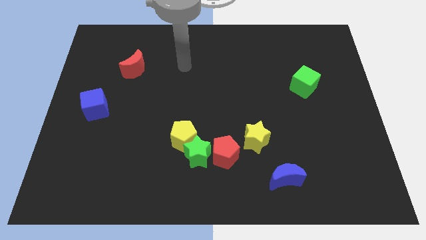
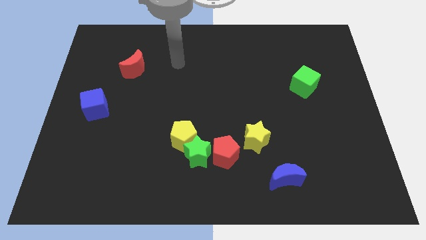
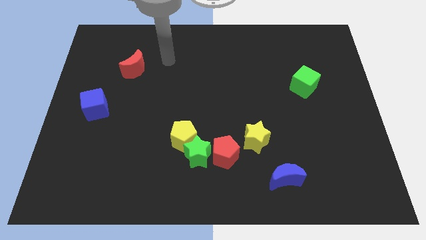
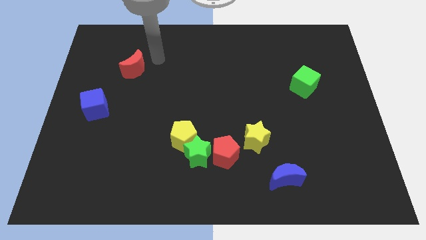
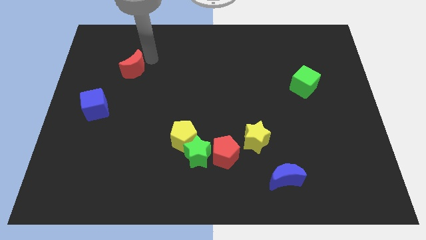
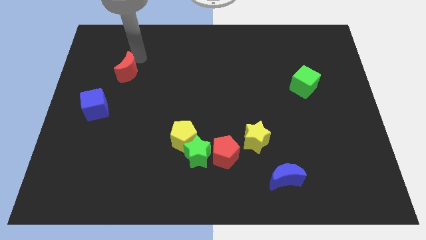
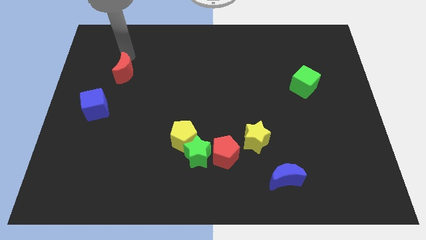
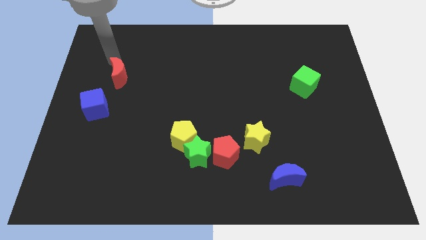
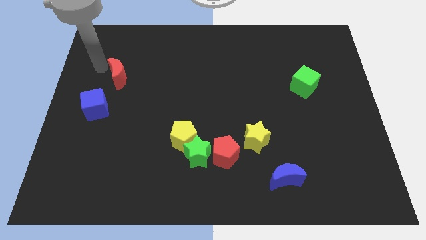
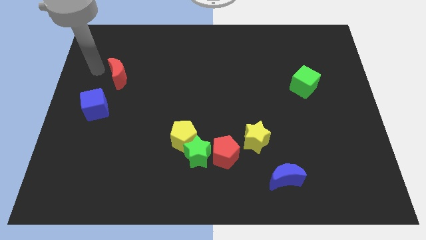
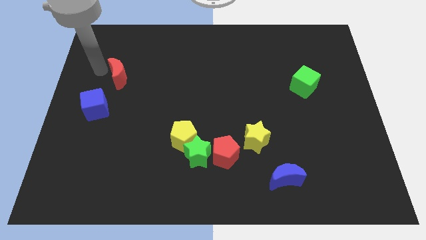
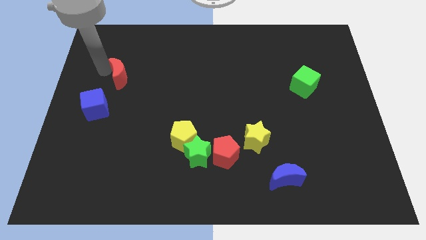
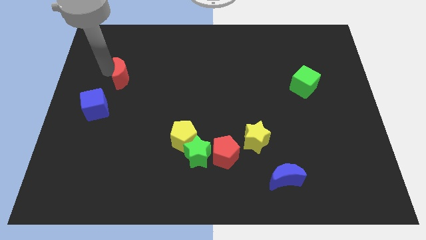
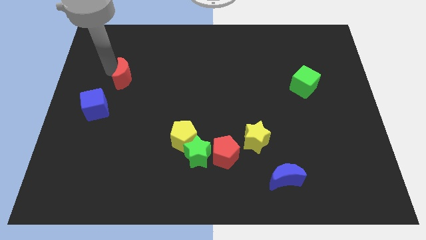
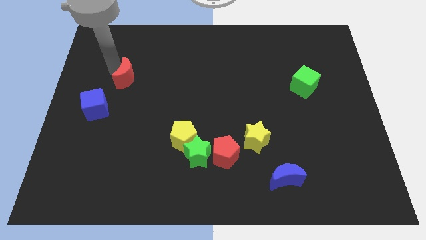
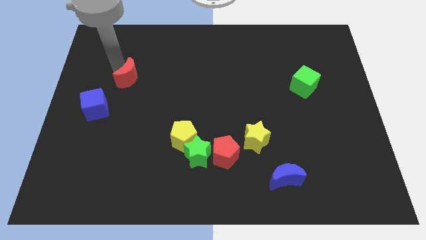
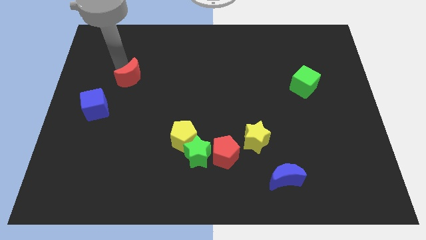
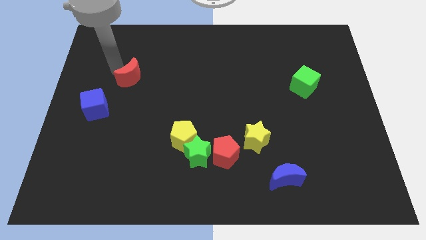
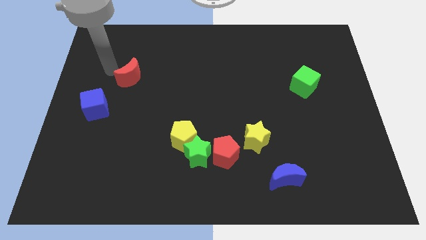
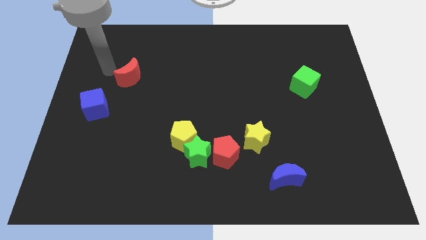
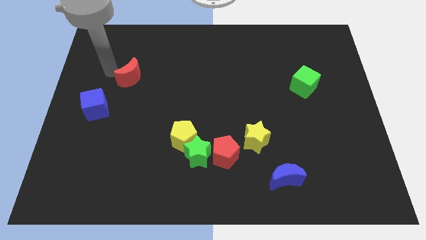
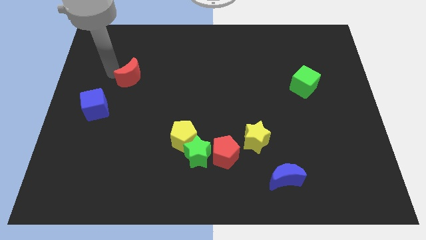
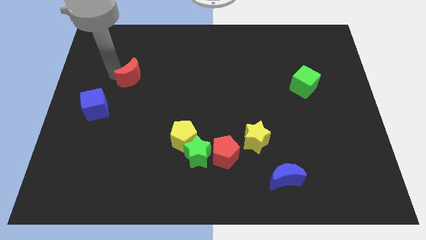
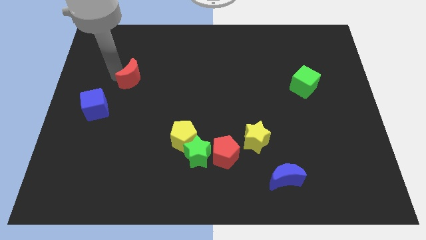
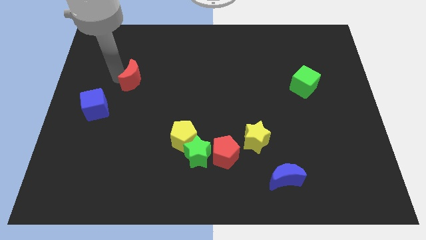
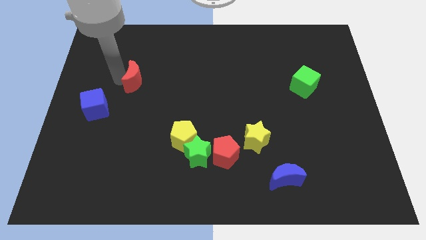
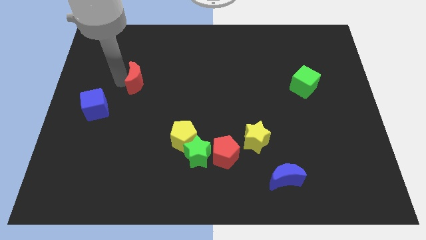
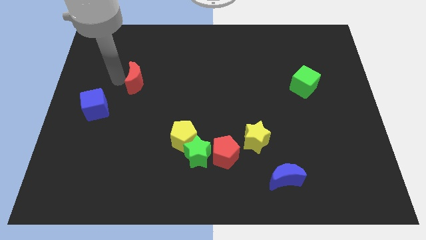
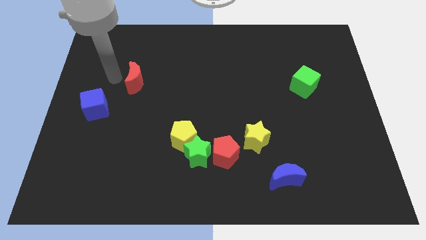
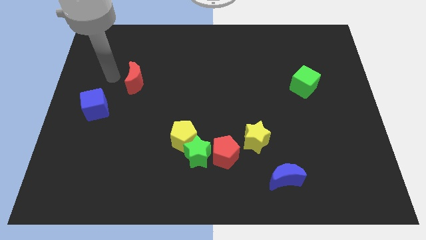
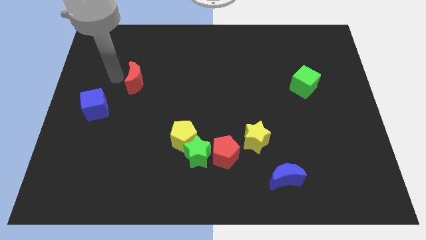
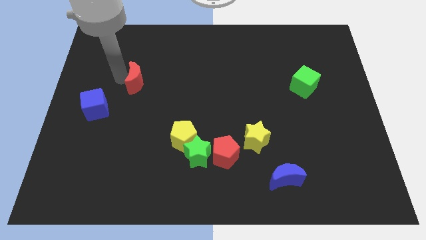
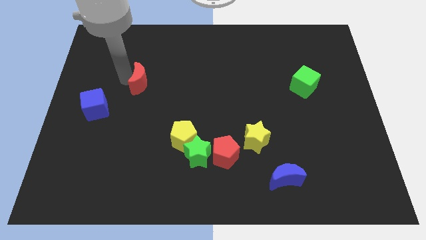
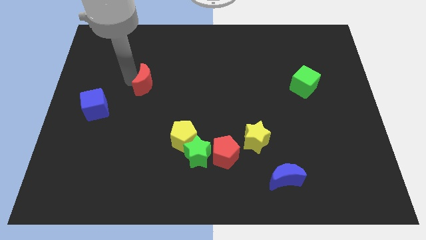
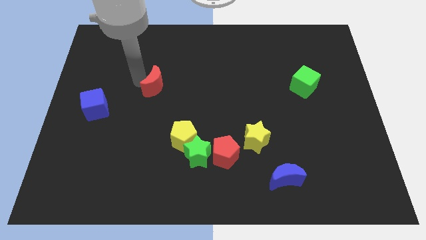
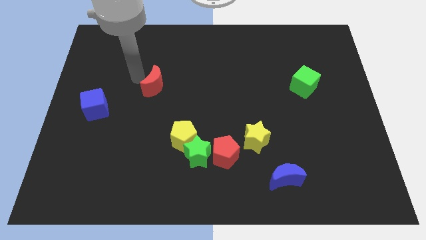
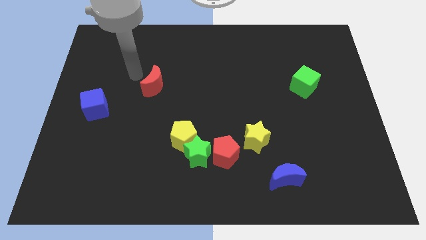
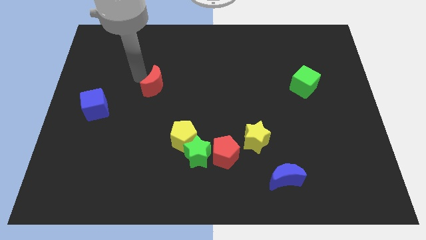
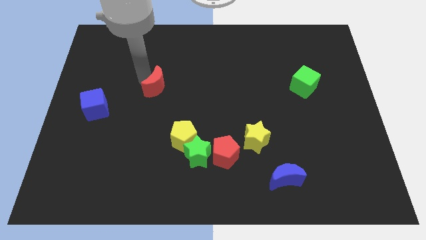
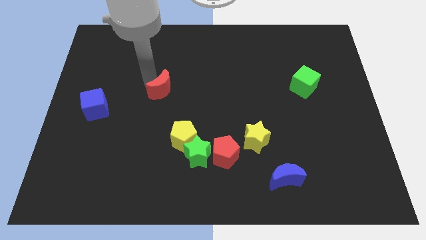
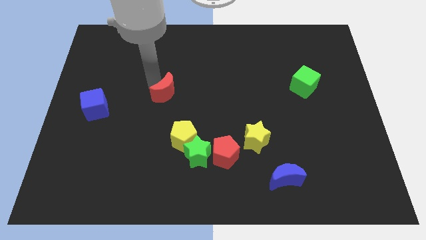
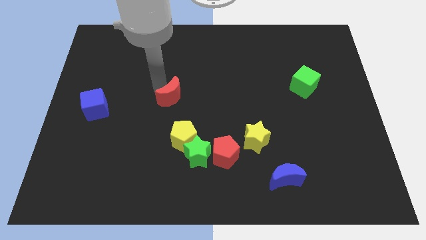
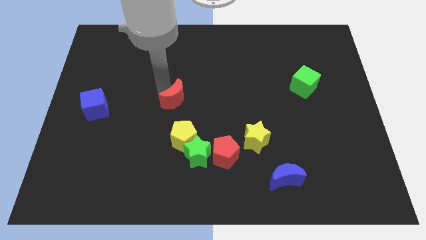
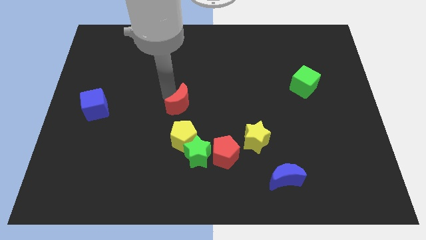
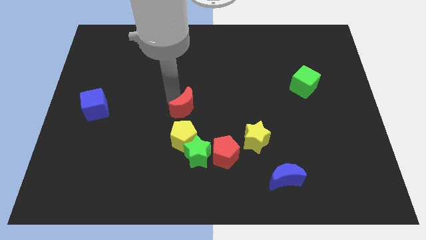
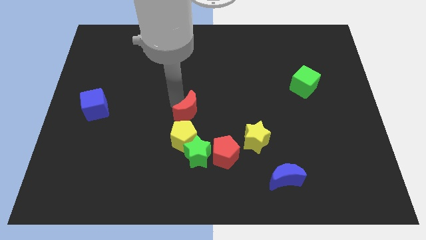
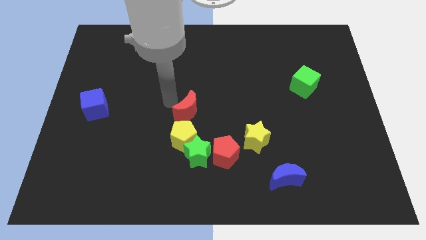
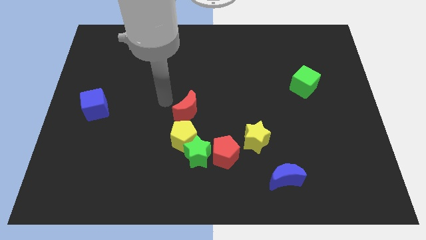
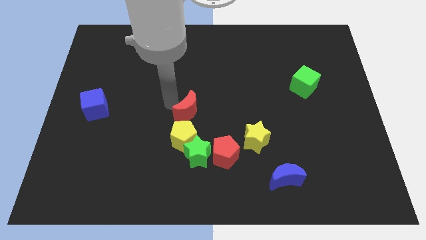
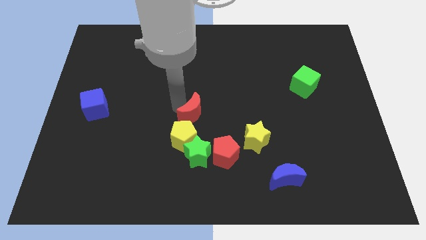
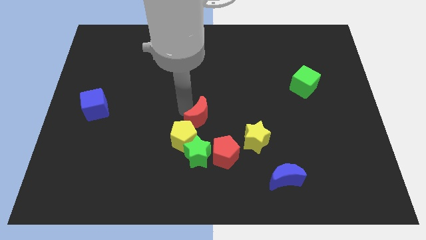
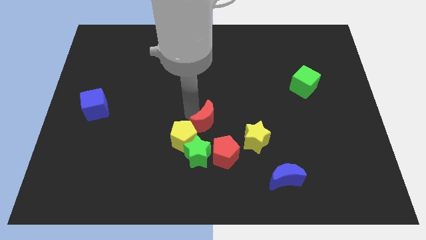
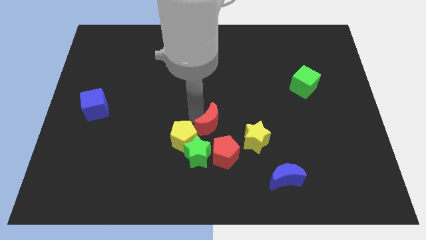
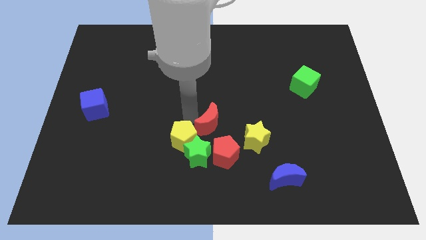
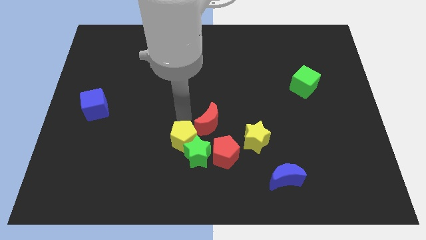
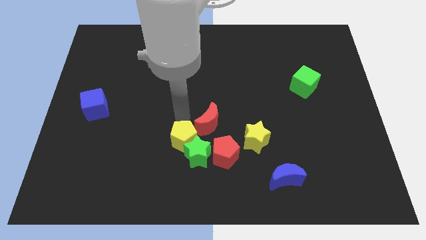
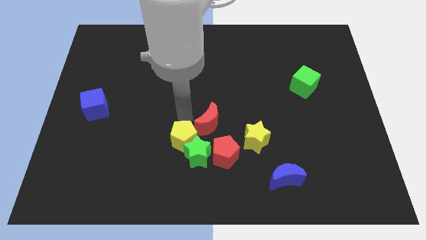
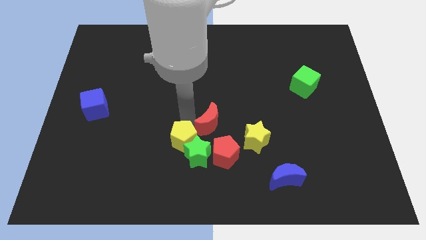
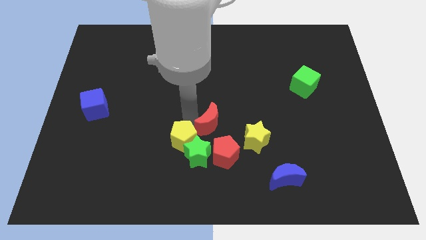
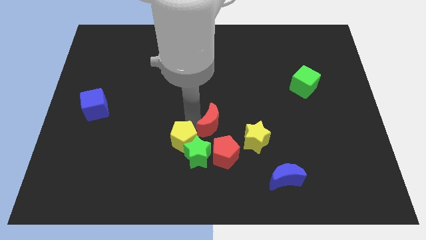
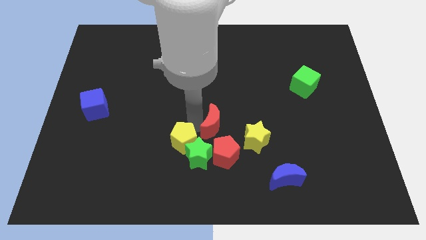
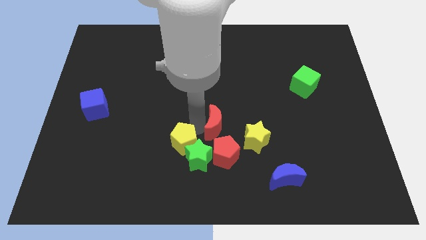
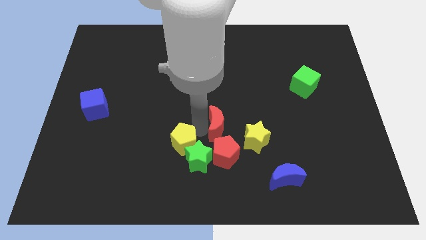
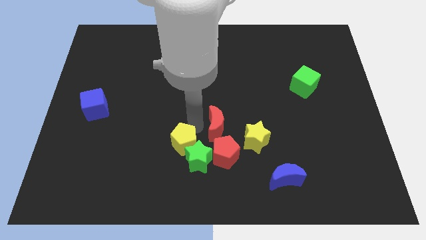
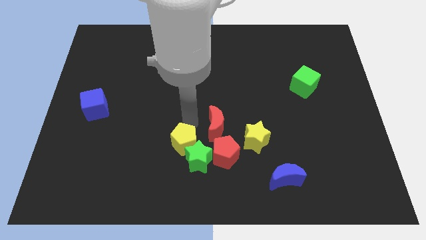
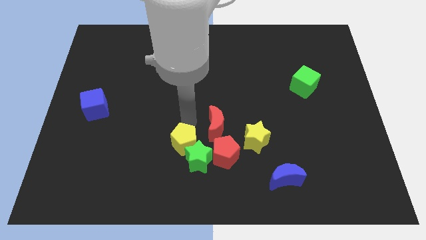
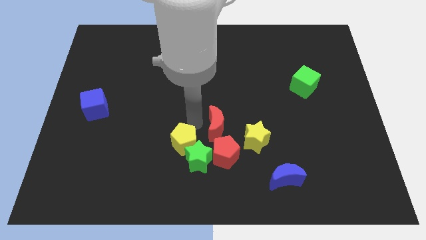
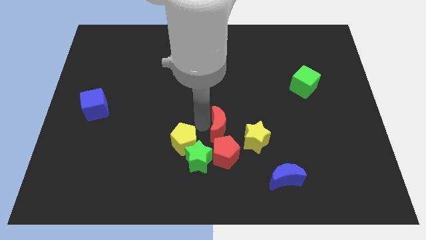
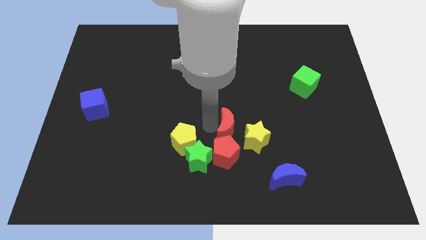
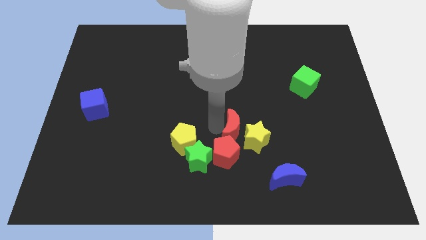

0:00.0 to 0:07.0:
move the red moon towards the yellow star
